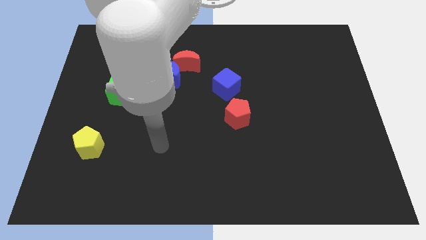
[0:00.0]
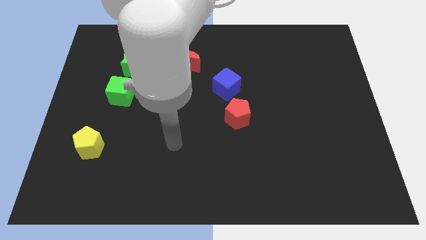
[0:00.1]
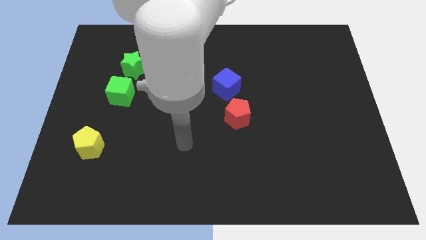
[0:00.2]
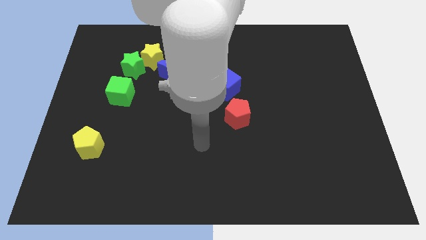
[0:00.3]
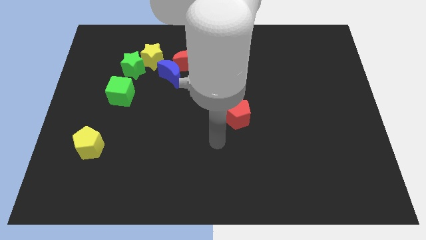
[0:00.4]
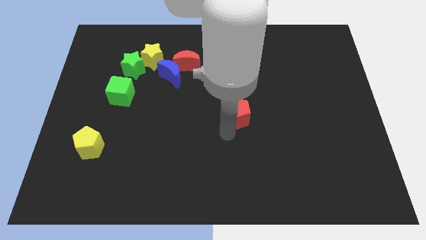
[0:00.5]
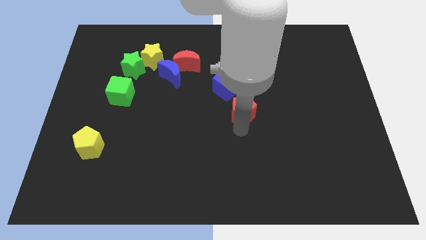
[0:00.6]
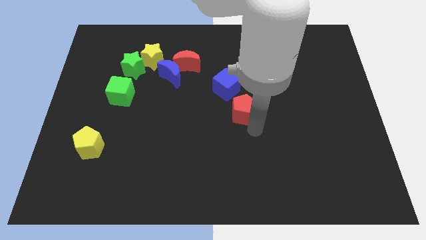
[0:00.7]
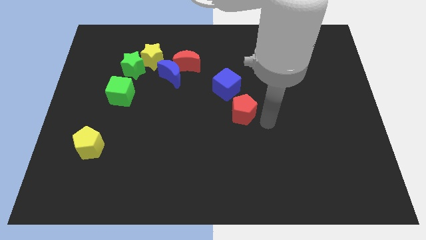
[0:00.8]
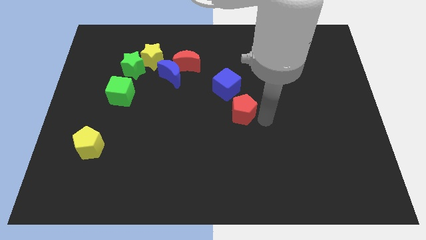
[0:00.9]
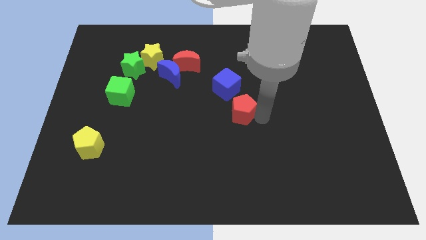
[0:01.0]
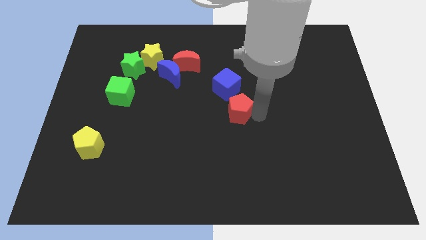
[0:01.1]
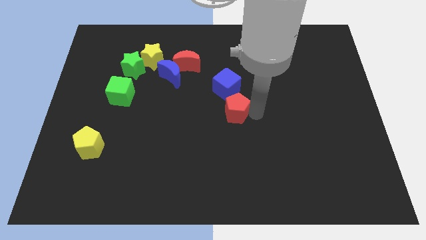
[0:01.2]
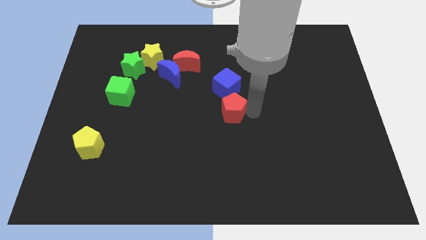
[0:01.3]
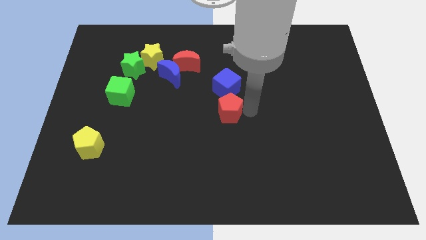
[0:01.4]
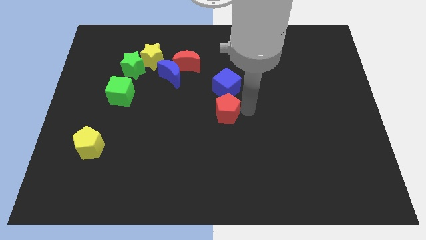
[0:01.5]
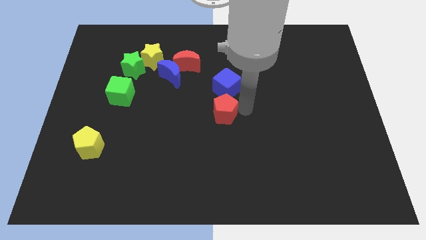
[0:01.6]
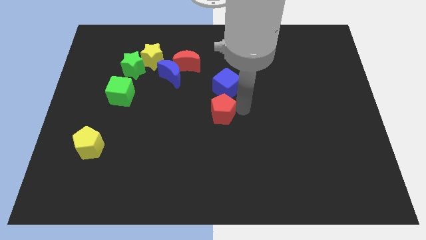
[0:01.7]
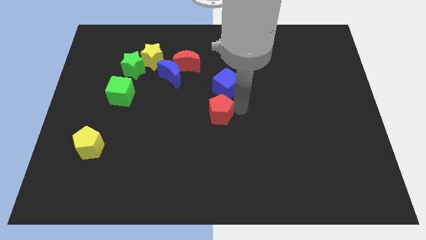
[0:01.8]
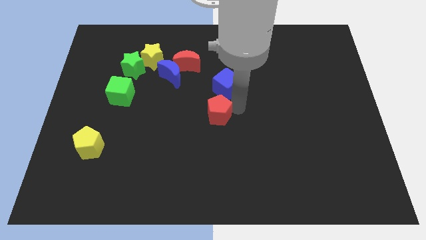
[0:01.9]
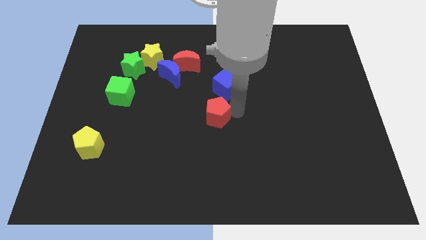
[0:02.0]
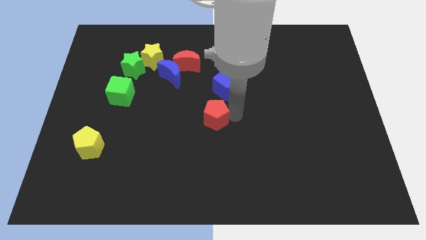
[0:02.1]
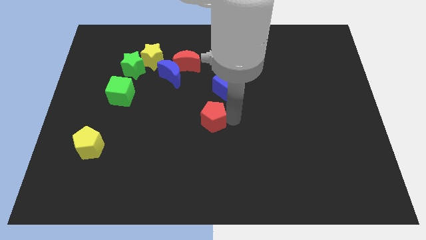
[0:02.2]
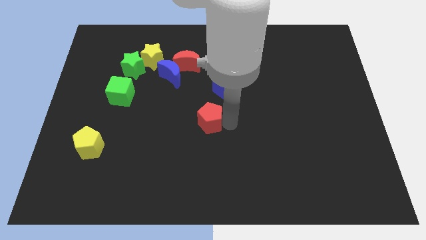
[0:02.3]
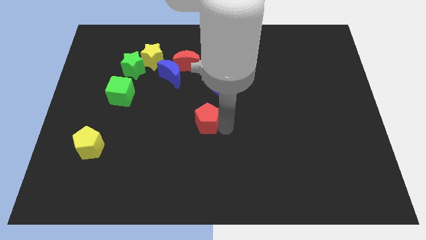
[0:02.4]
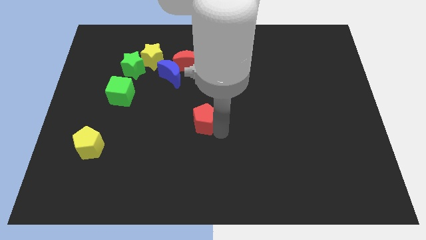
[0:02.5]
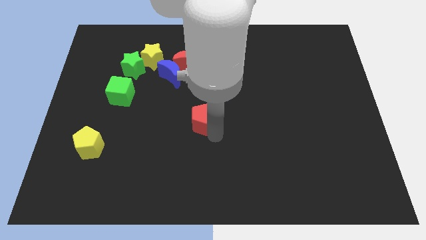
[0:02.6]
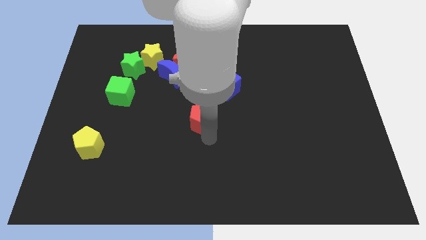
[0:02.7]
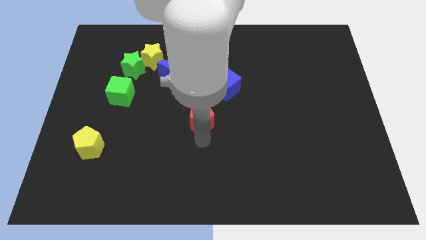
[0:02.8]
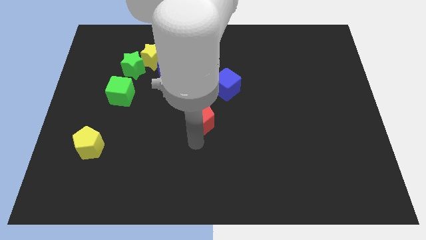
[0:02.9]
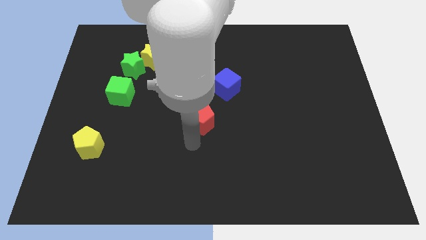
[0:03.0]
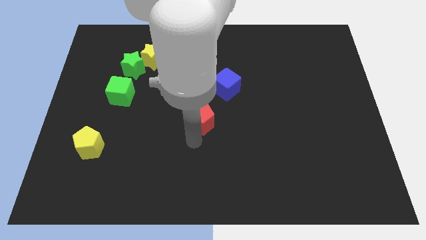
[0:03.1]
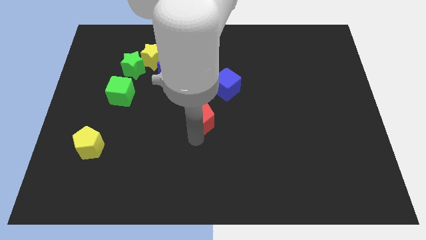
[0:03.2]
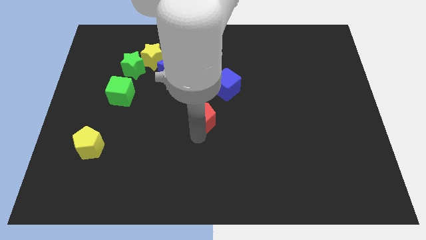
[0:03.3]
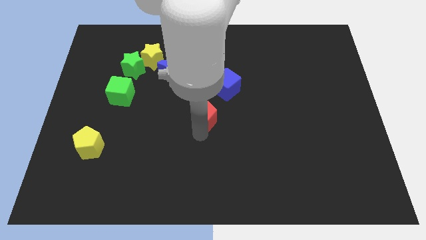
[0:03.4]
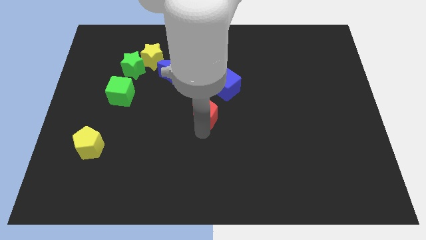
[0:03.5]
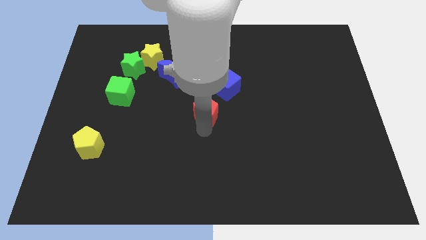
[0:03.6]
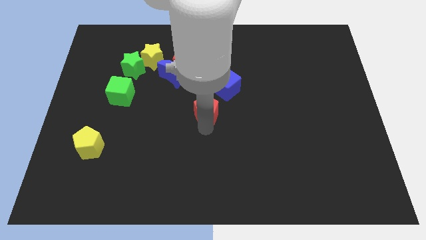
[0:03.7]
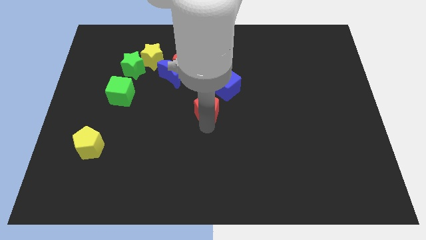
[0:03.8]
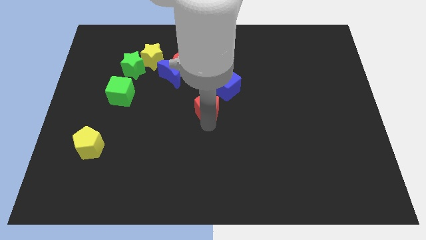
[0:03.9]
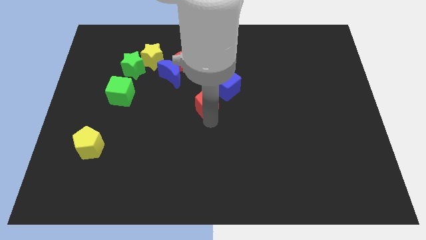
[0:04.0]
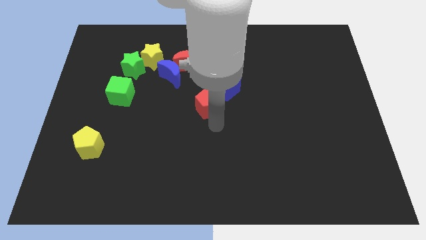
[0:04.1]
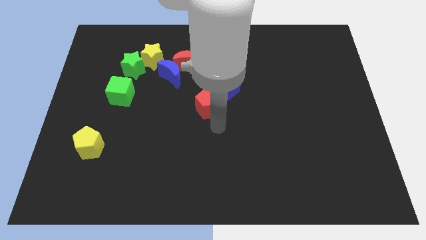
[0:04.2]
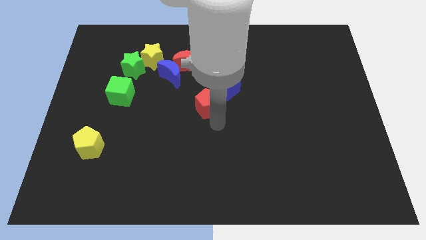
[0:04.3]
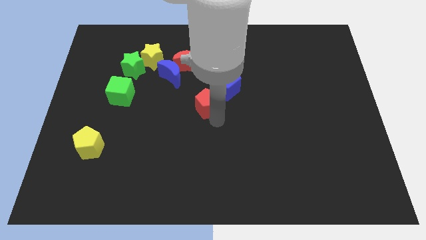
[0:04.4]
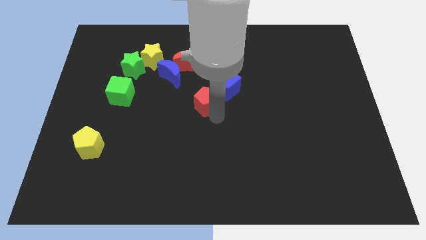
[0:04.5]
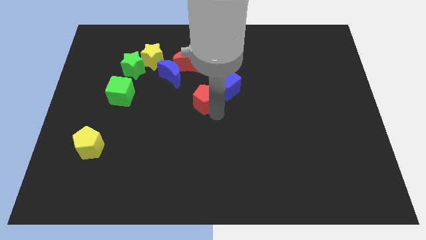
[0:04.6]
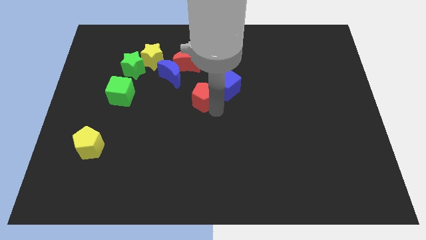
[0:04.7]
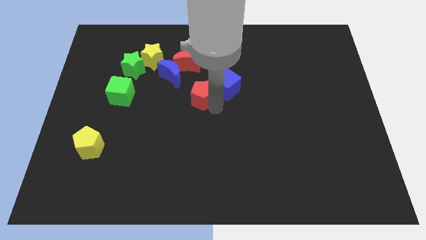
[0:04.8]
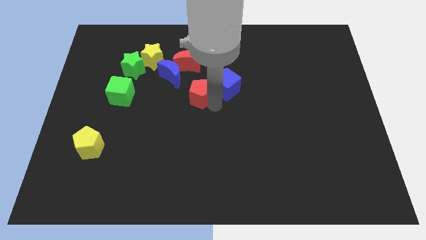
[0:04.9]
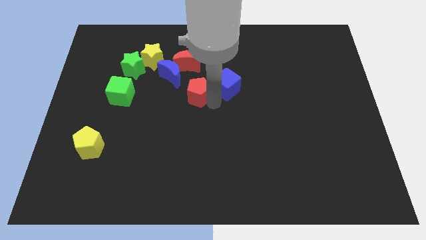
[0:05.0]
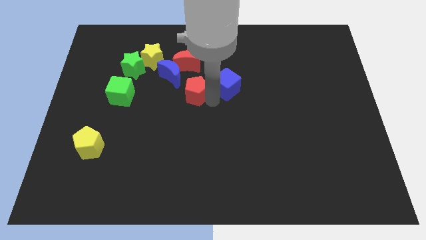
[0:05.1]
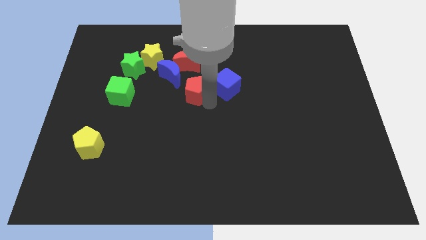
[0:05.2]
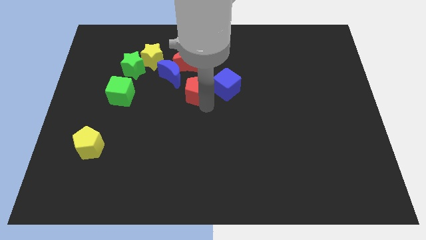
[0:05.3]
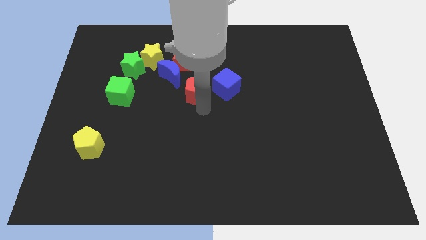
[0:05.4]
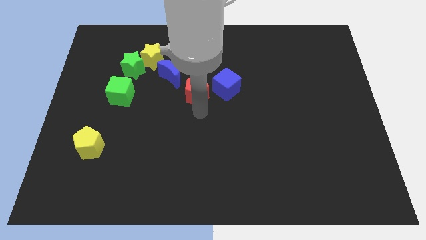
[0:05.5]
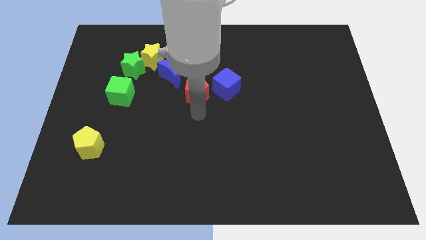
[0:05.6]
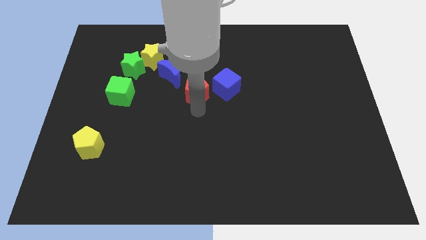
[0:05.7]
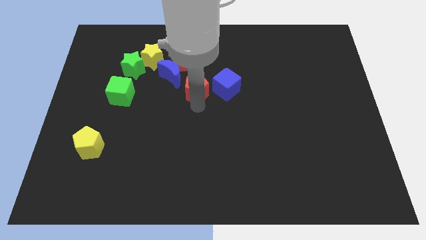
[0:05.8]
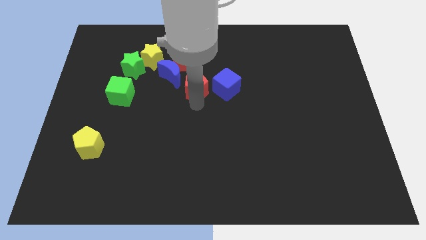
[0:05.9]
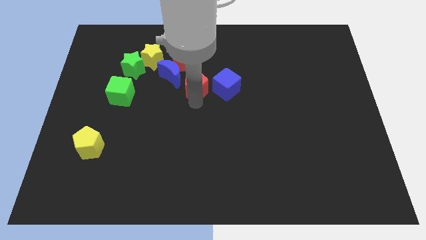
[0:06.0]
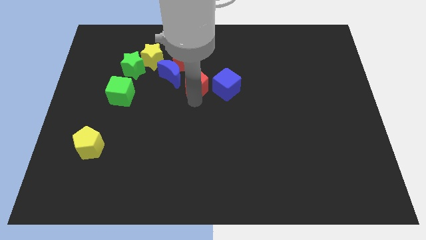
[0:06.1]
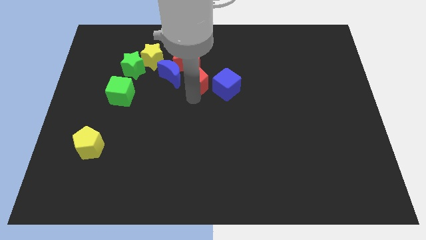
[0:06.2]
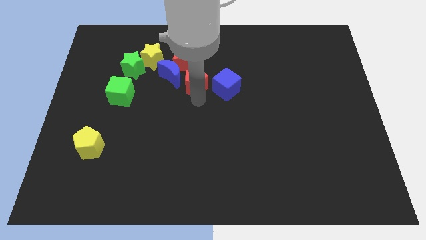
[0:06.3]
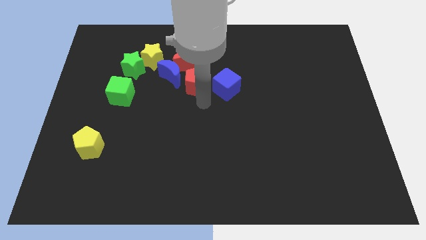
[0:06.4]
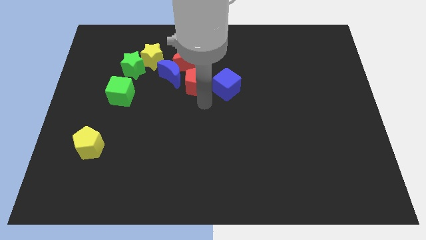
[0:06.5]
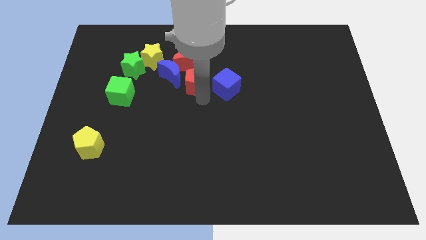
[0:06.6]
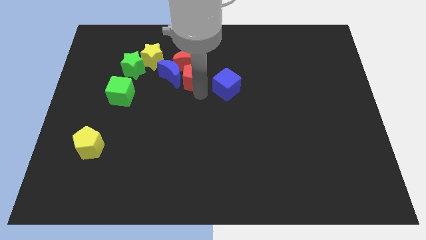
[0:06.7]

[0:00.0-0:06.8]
put the red pentagon to the red moon

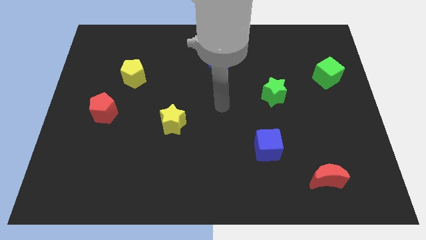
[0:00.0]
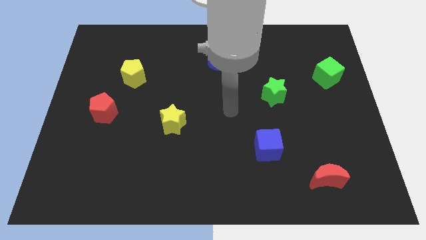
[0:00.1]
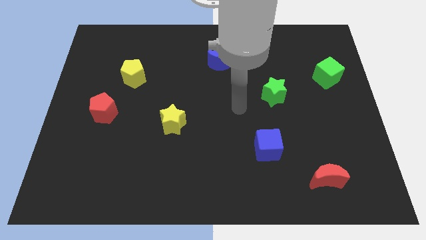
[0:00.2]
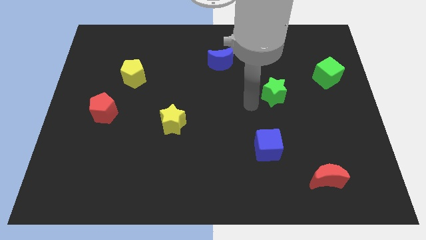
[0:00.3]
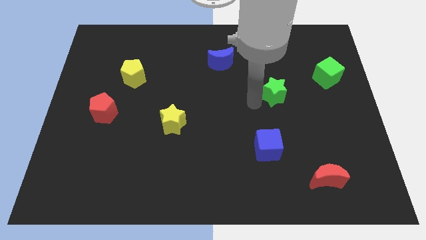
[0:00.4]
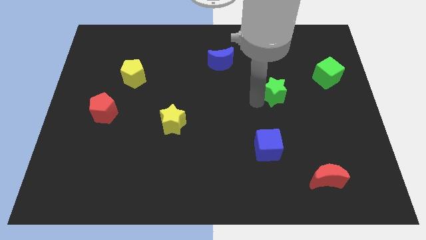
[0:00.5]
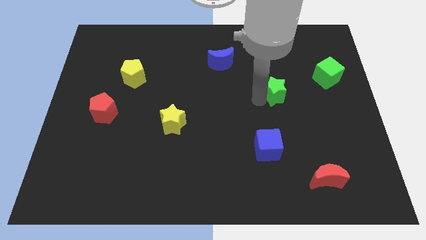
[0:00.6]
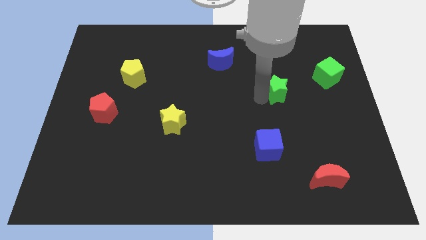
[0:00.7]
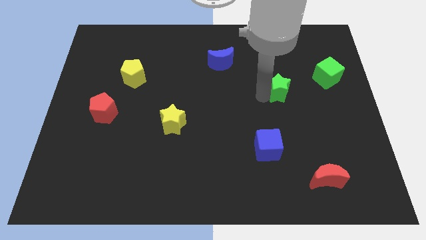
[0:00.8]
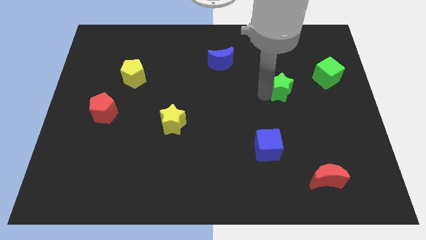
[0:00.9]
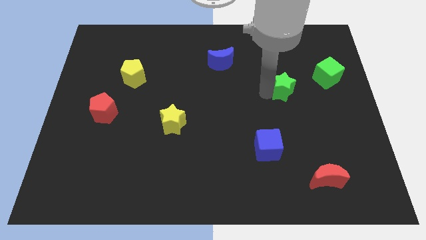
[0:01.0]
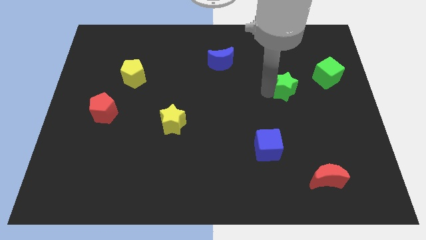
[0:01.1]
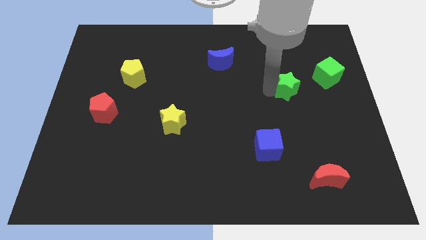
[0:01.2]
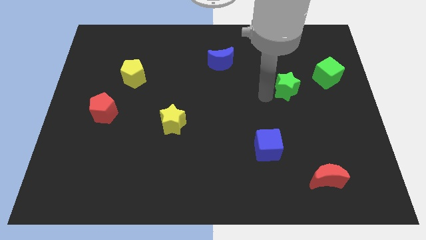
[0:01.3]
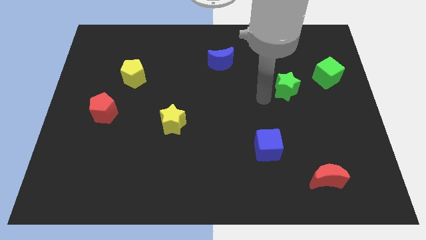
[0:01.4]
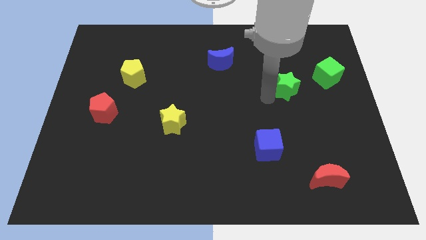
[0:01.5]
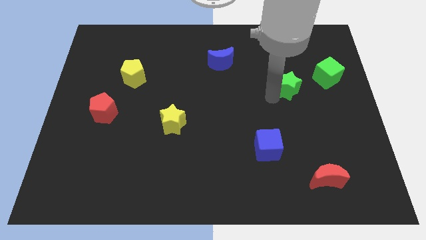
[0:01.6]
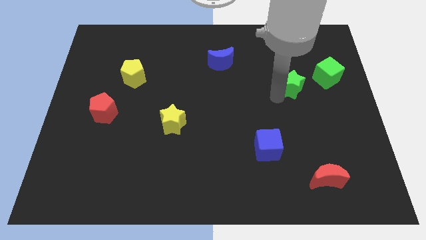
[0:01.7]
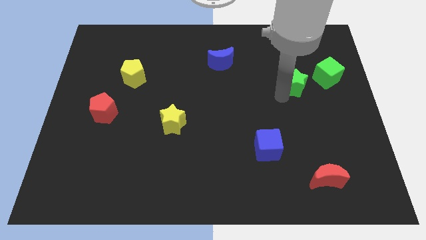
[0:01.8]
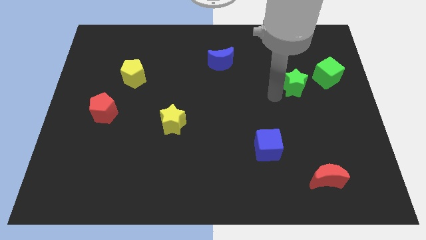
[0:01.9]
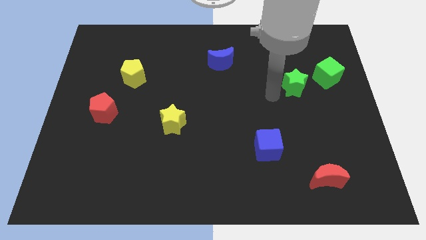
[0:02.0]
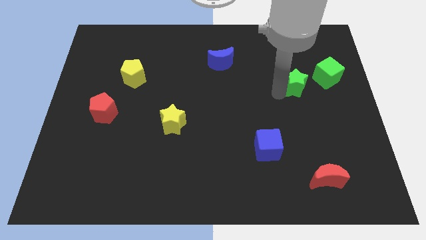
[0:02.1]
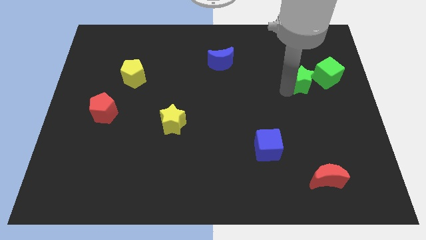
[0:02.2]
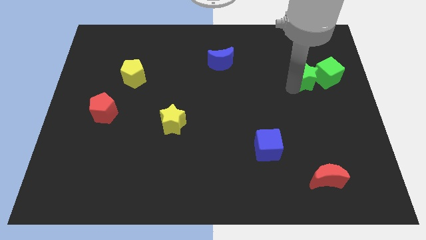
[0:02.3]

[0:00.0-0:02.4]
slide the green star close to the green cube
